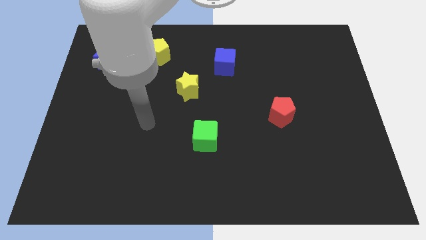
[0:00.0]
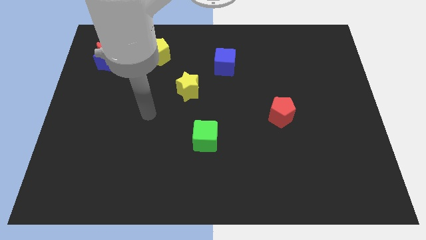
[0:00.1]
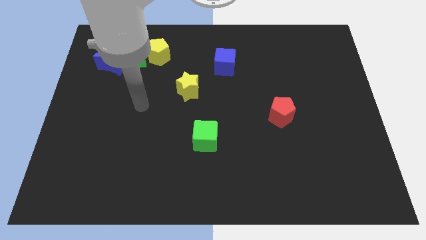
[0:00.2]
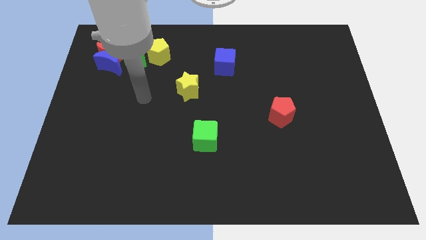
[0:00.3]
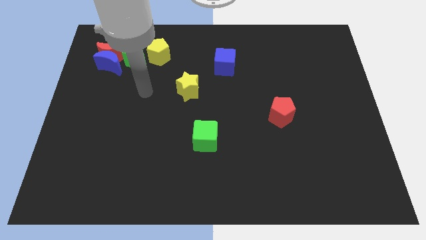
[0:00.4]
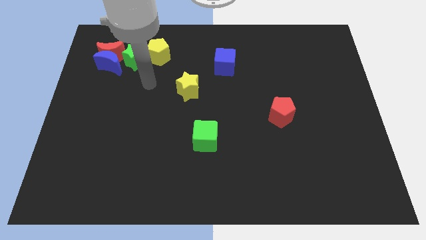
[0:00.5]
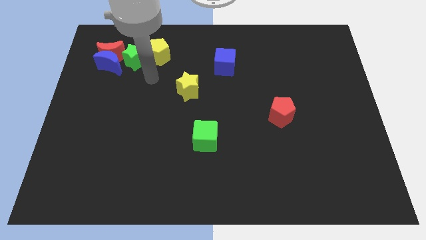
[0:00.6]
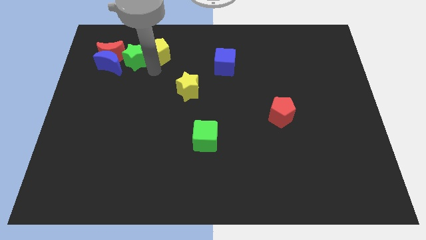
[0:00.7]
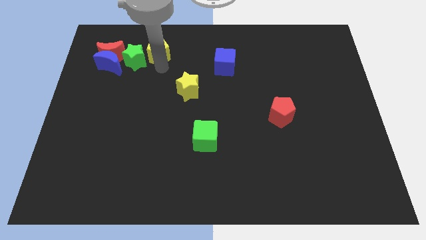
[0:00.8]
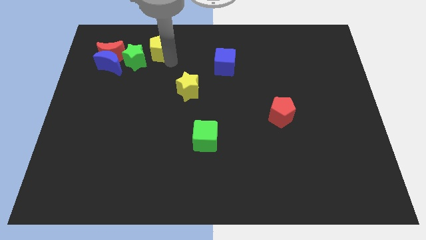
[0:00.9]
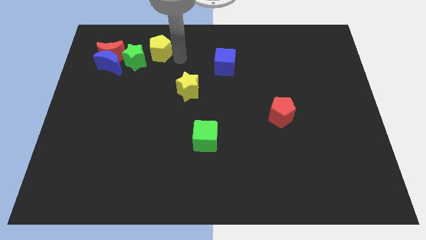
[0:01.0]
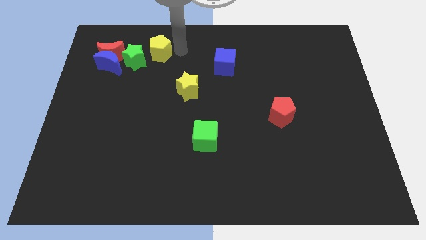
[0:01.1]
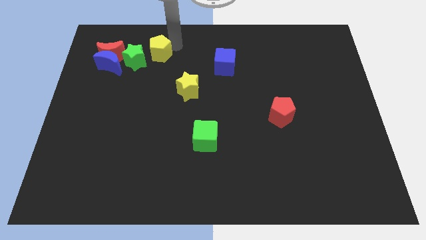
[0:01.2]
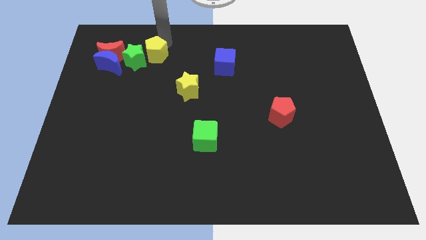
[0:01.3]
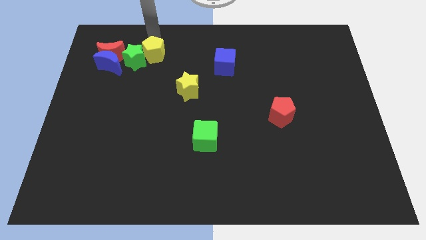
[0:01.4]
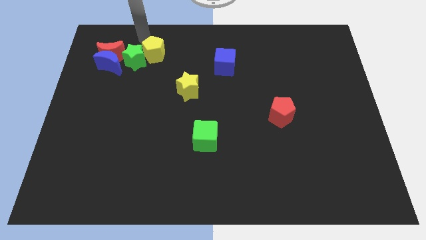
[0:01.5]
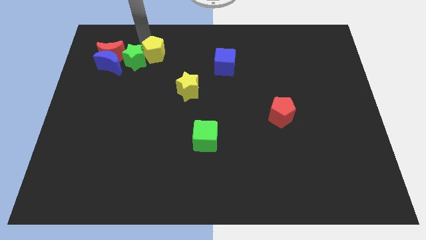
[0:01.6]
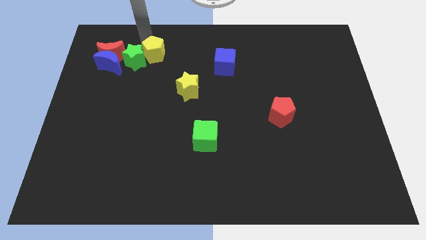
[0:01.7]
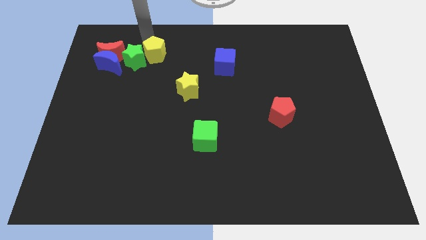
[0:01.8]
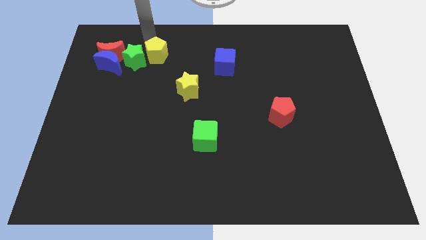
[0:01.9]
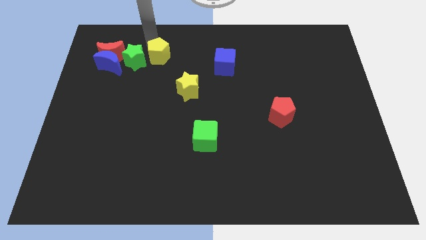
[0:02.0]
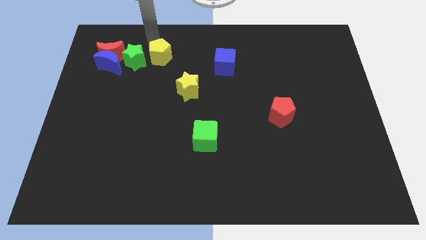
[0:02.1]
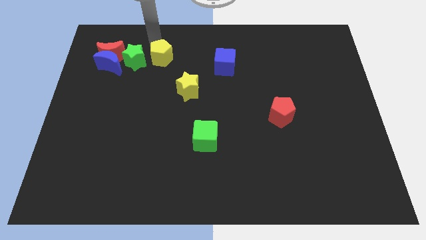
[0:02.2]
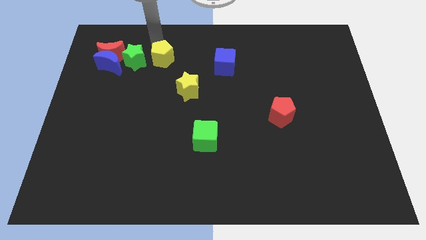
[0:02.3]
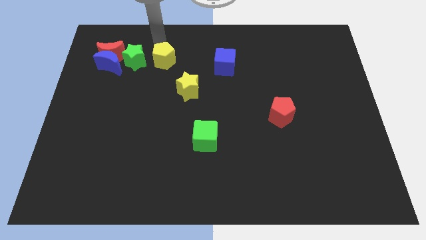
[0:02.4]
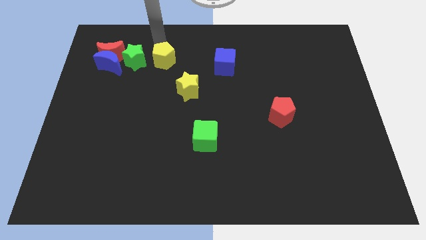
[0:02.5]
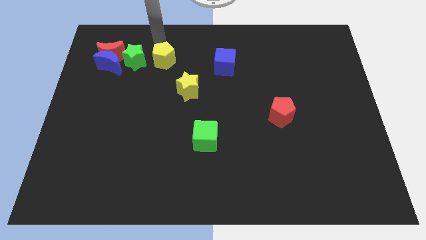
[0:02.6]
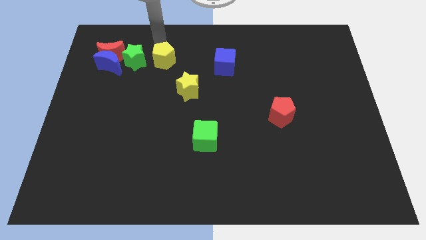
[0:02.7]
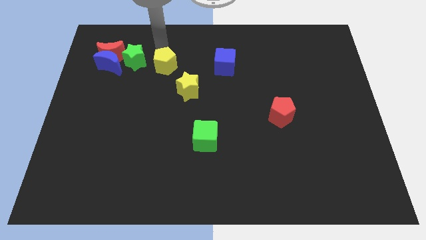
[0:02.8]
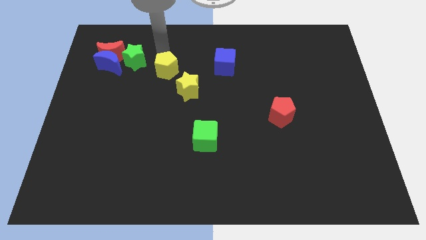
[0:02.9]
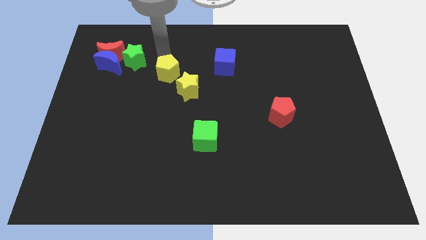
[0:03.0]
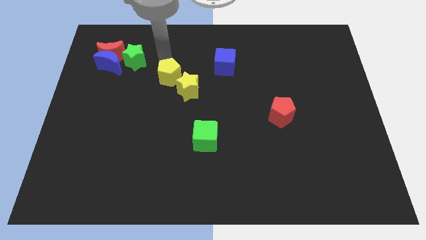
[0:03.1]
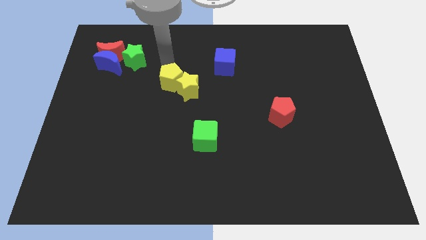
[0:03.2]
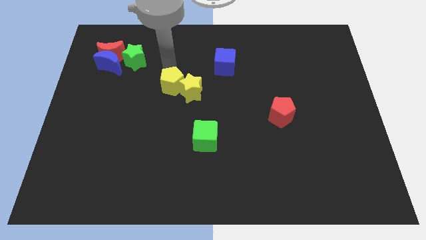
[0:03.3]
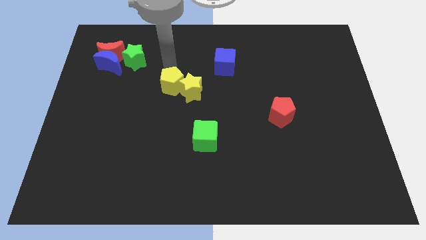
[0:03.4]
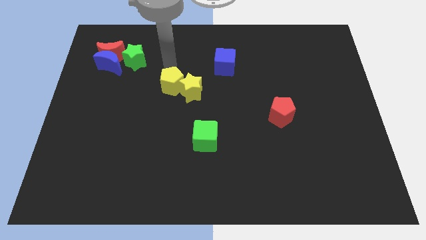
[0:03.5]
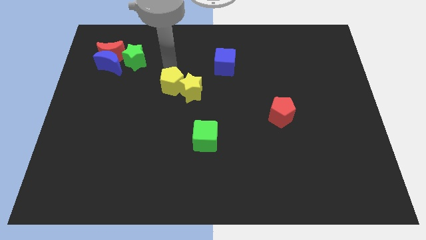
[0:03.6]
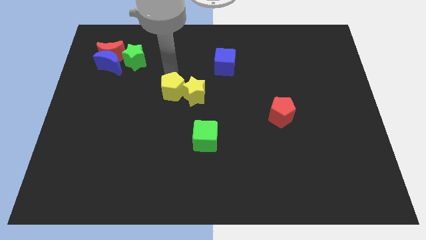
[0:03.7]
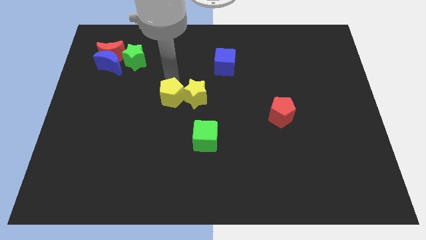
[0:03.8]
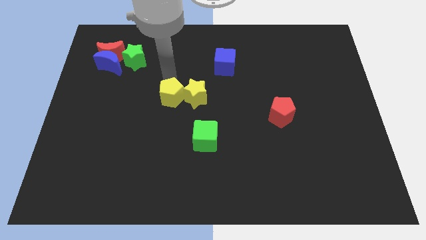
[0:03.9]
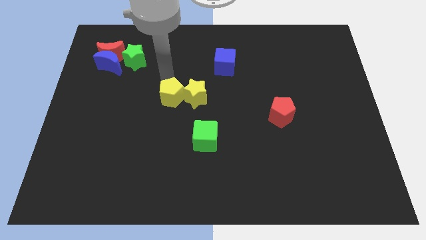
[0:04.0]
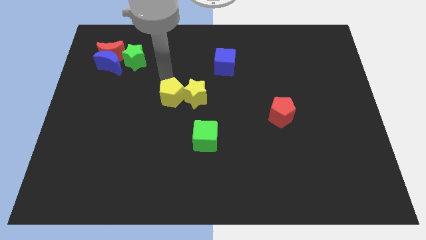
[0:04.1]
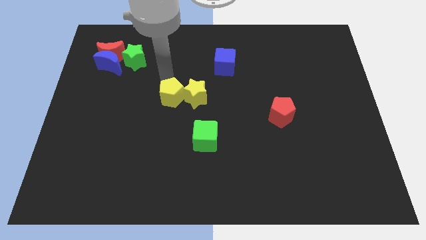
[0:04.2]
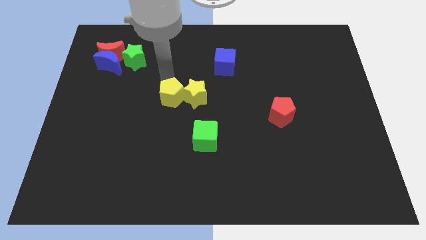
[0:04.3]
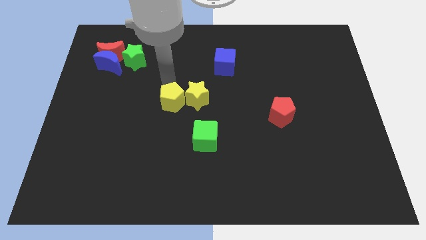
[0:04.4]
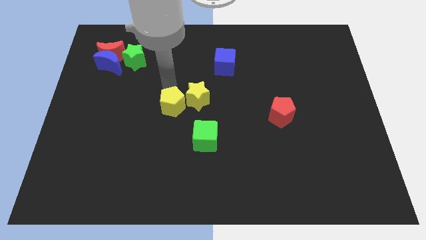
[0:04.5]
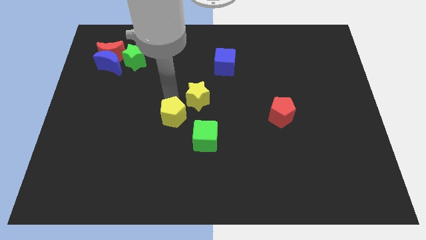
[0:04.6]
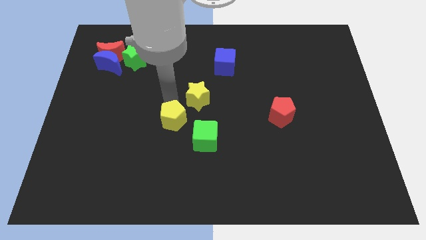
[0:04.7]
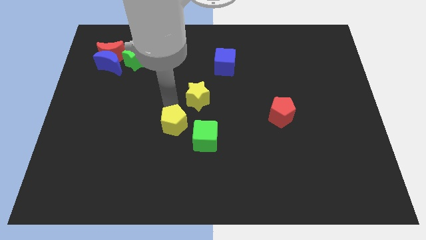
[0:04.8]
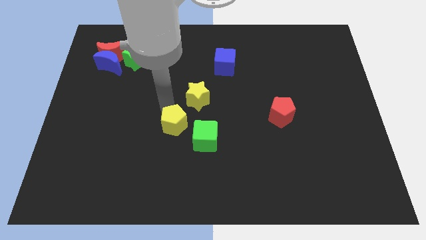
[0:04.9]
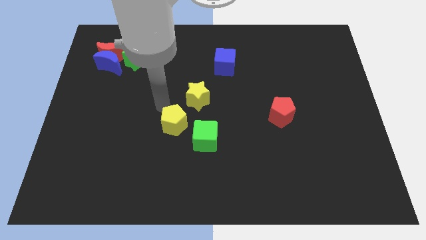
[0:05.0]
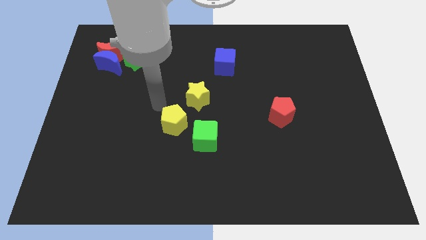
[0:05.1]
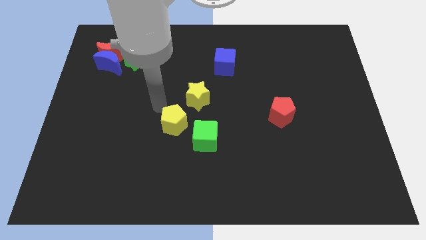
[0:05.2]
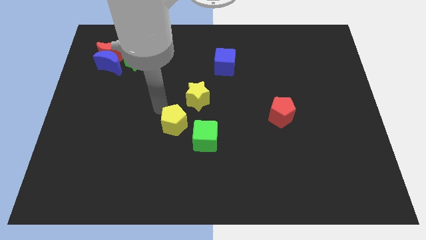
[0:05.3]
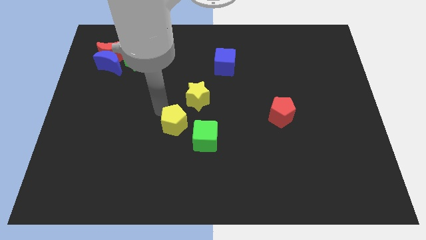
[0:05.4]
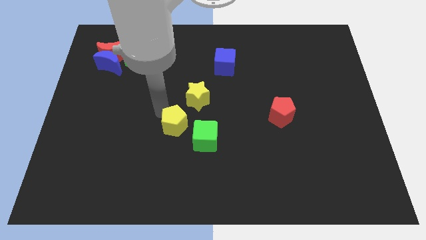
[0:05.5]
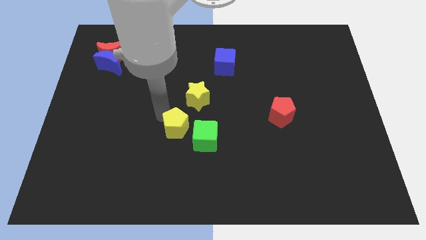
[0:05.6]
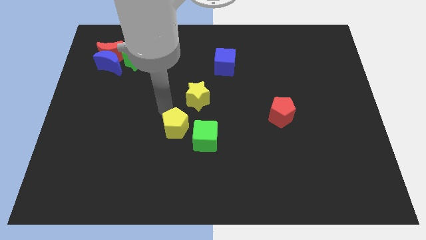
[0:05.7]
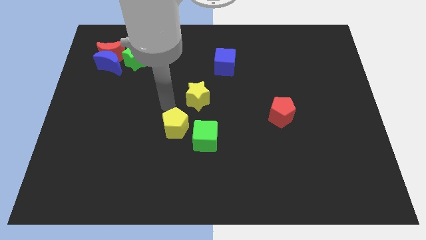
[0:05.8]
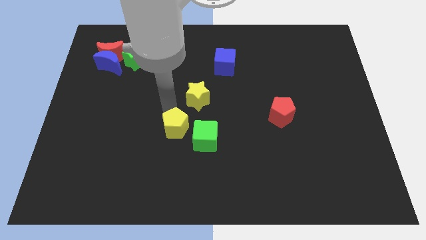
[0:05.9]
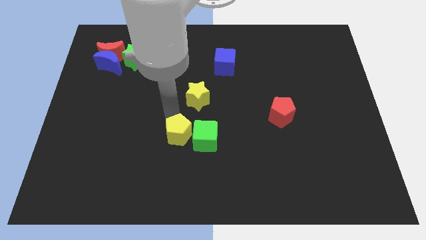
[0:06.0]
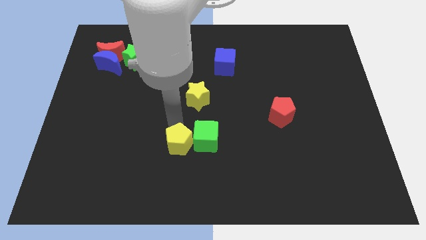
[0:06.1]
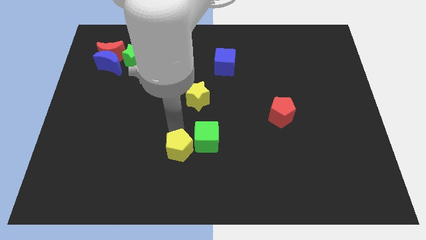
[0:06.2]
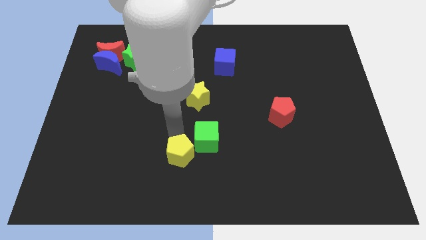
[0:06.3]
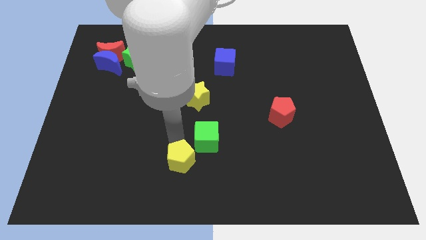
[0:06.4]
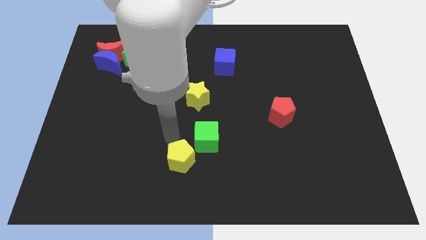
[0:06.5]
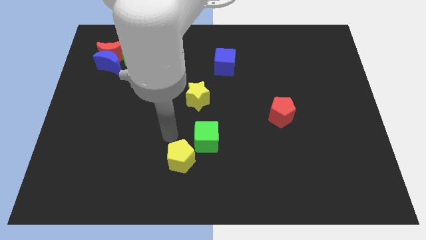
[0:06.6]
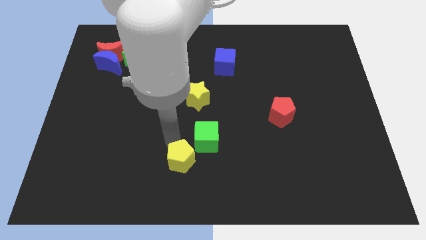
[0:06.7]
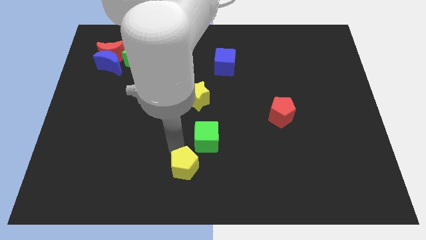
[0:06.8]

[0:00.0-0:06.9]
put the yellow pentagon to the bottom side

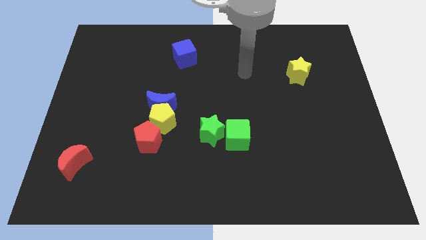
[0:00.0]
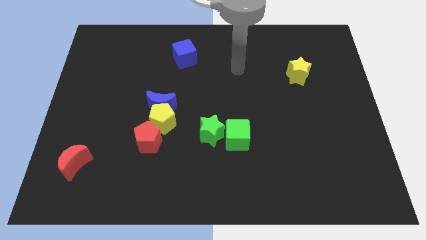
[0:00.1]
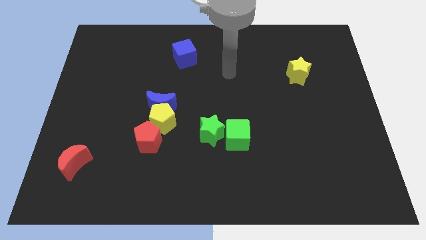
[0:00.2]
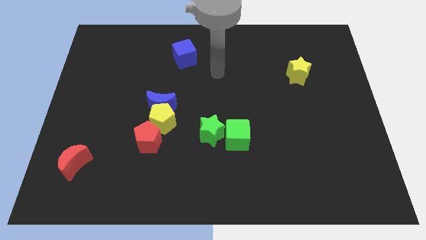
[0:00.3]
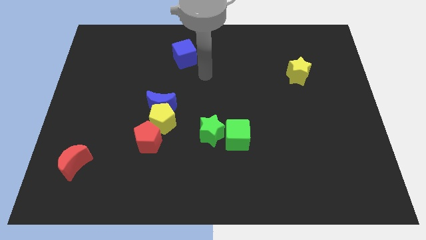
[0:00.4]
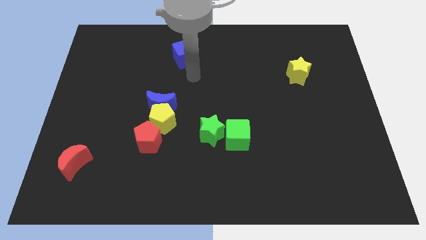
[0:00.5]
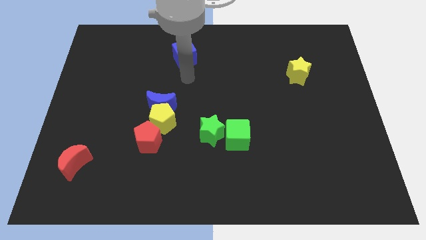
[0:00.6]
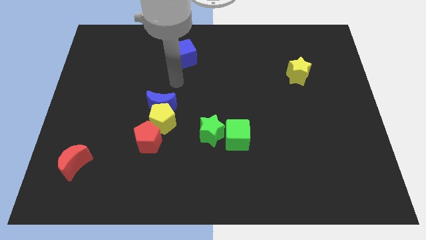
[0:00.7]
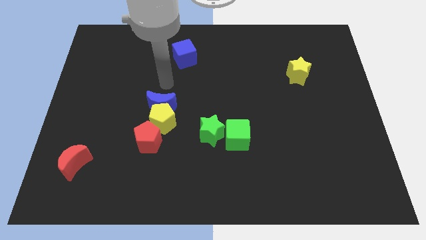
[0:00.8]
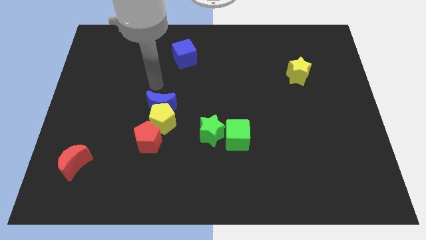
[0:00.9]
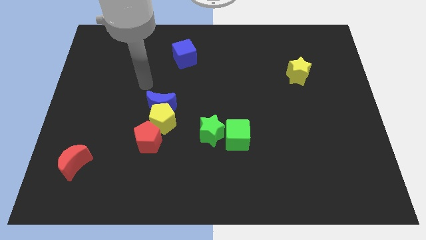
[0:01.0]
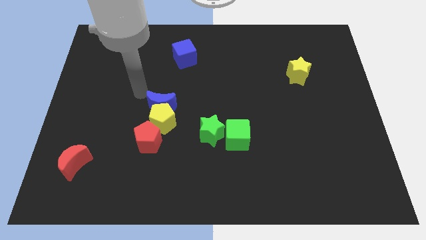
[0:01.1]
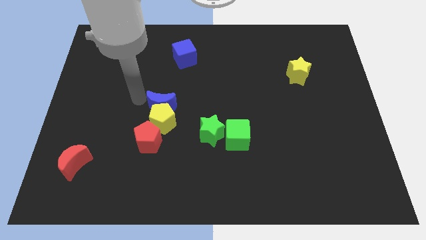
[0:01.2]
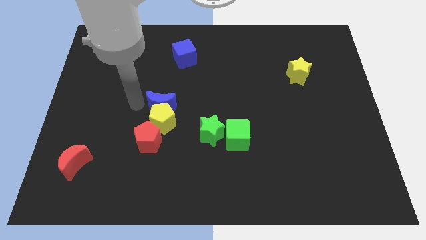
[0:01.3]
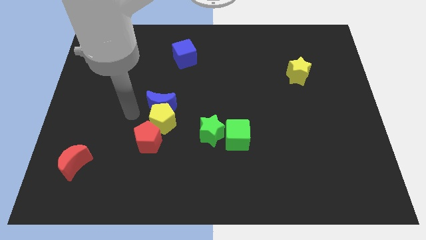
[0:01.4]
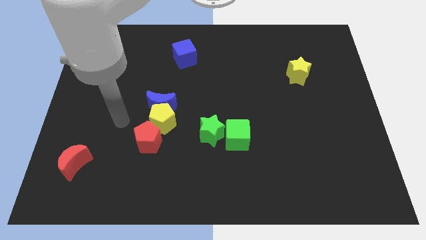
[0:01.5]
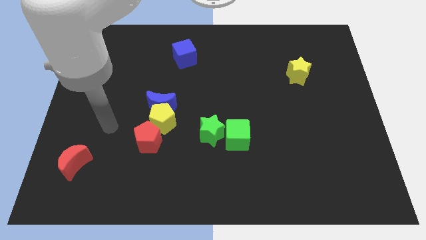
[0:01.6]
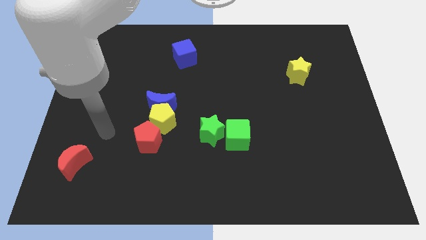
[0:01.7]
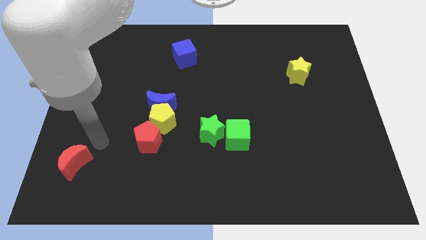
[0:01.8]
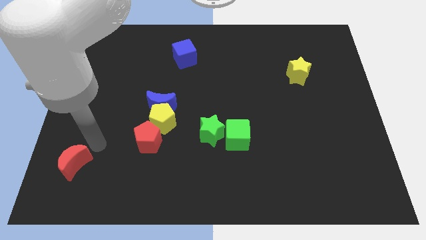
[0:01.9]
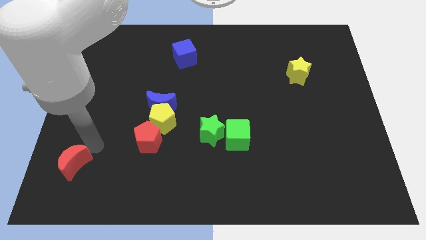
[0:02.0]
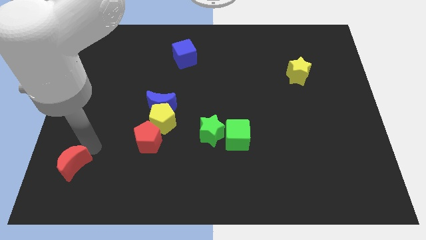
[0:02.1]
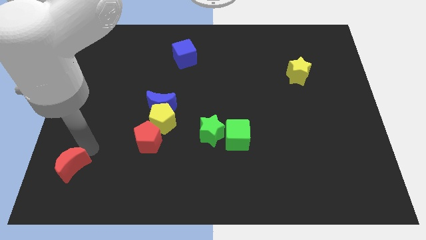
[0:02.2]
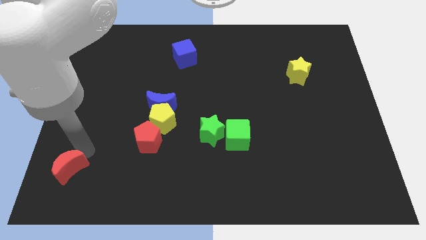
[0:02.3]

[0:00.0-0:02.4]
push the red moon to the lower left corner
